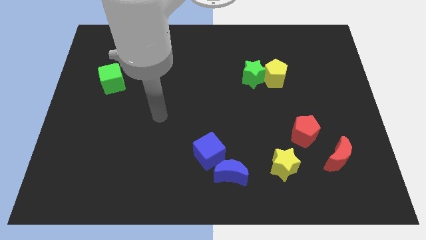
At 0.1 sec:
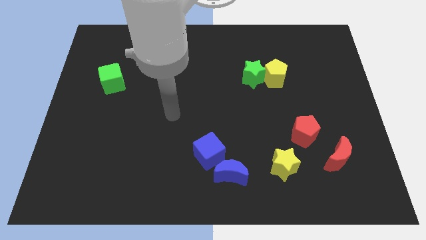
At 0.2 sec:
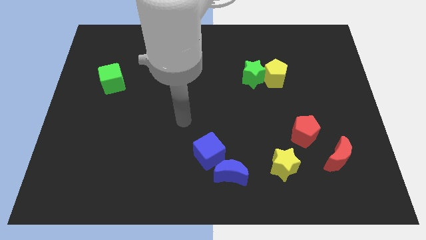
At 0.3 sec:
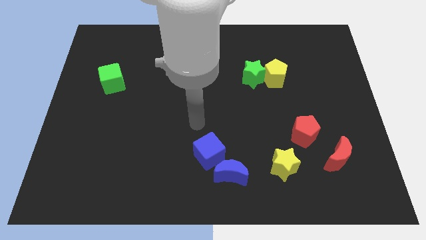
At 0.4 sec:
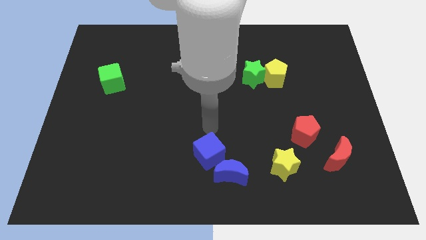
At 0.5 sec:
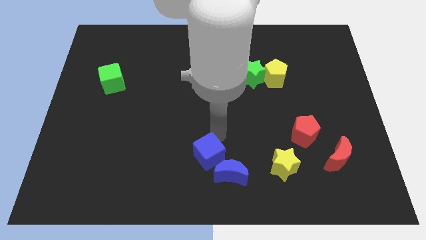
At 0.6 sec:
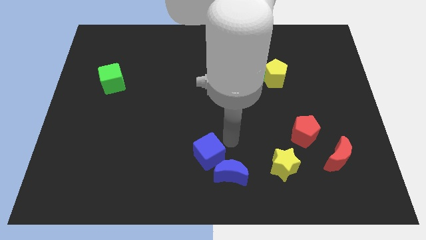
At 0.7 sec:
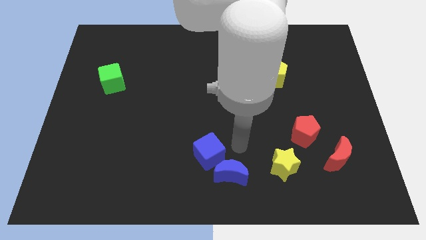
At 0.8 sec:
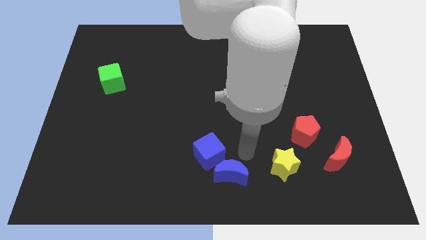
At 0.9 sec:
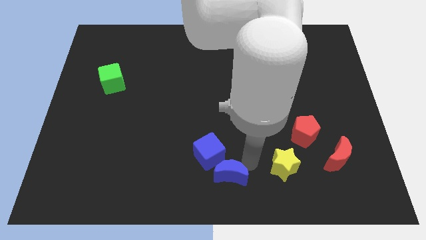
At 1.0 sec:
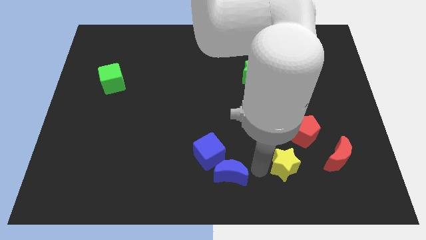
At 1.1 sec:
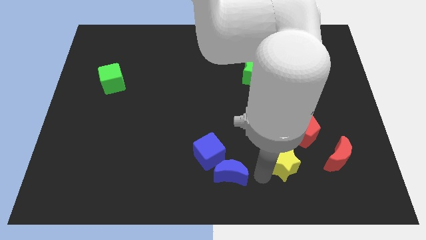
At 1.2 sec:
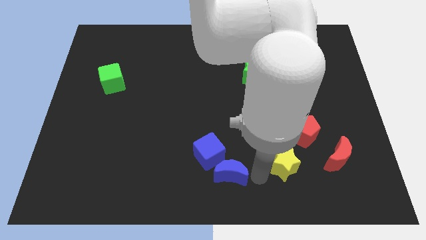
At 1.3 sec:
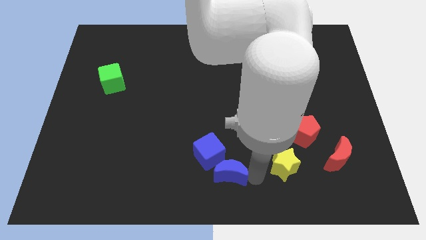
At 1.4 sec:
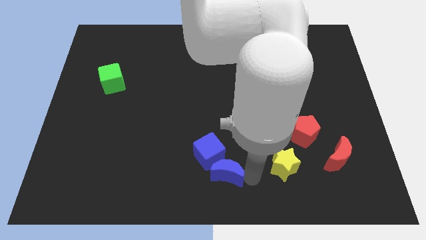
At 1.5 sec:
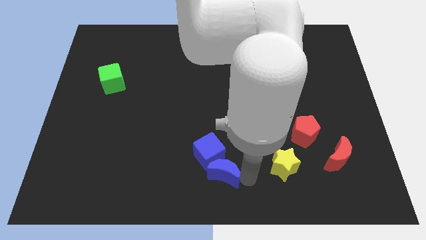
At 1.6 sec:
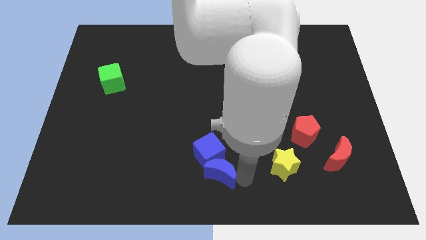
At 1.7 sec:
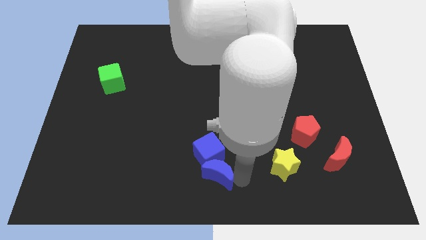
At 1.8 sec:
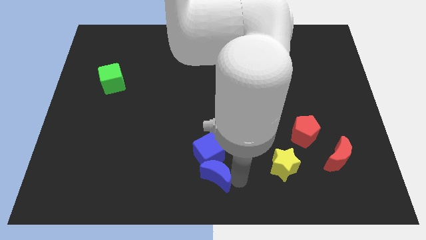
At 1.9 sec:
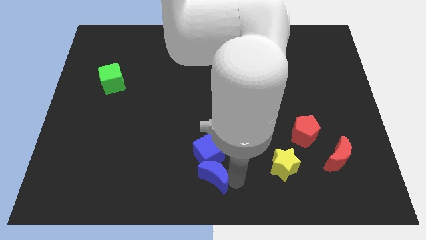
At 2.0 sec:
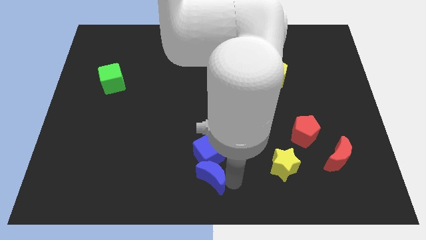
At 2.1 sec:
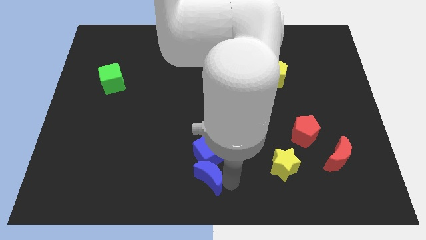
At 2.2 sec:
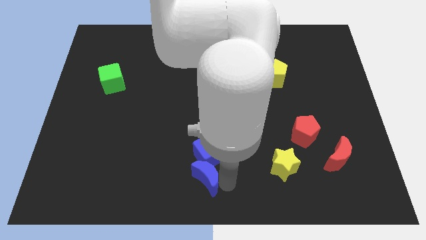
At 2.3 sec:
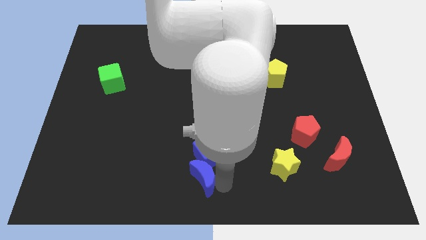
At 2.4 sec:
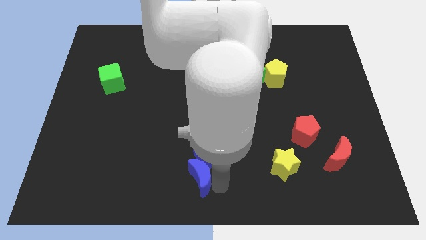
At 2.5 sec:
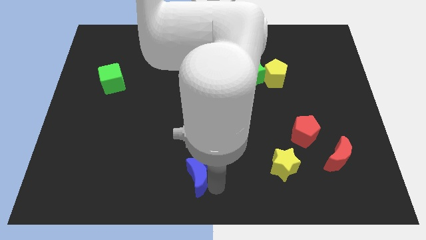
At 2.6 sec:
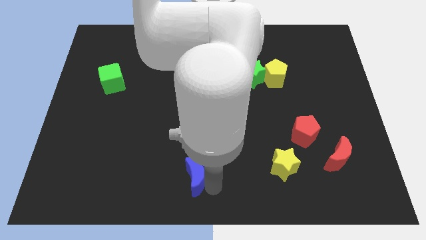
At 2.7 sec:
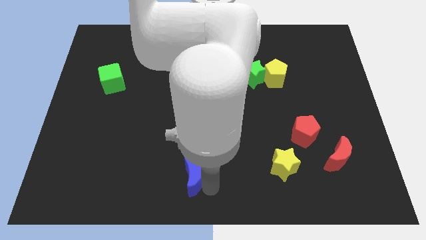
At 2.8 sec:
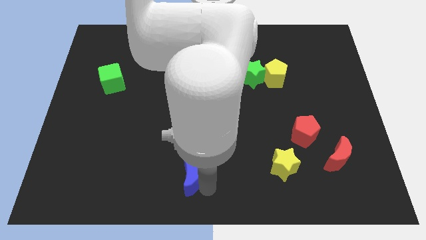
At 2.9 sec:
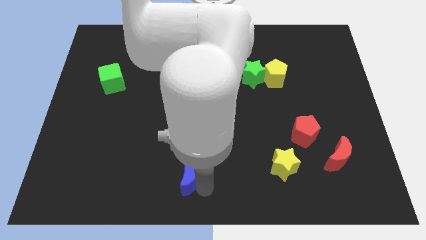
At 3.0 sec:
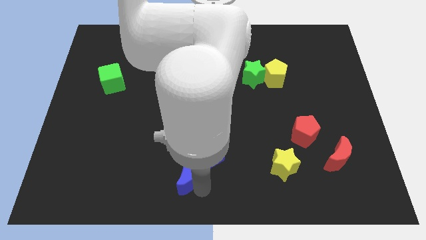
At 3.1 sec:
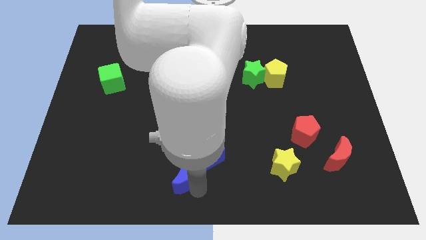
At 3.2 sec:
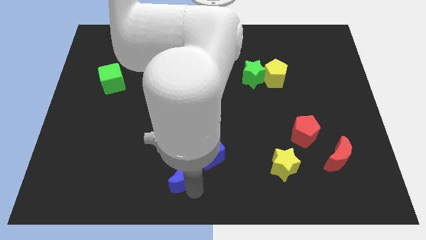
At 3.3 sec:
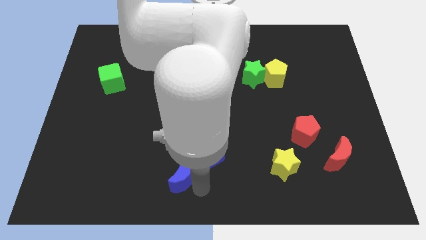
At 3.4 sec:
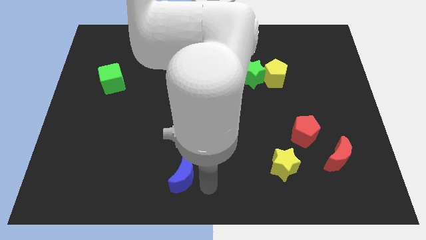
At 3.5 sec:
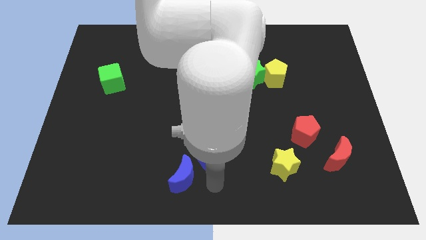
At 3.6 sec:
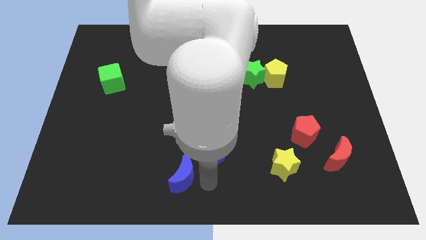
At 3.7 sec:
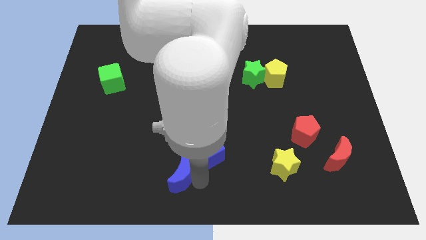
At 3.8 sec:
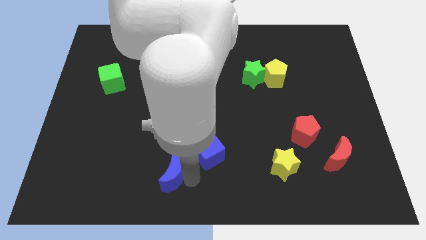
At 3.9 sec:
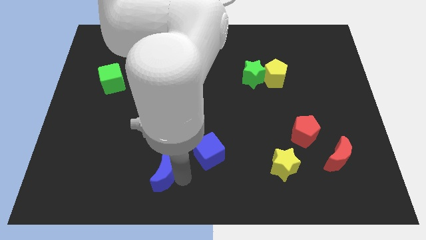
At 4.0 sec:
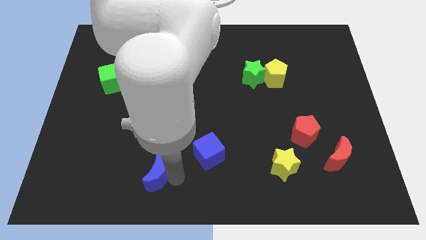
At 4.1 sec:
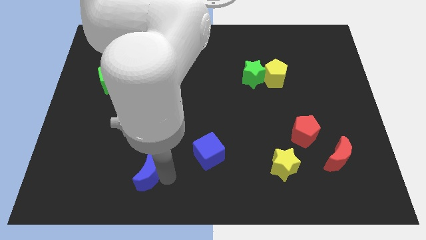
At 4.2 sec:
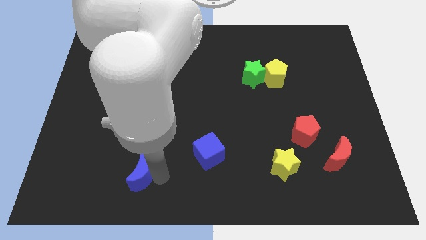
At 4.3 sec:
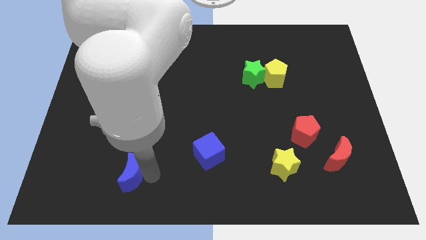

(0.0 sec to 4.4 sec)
move the blue moon left

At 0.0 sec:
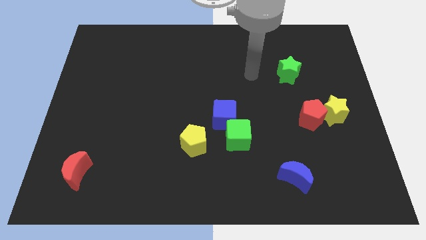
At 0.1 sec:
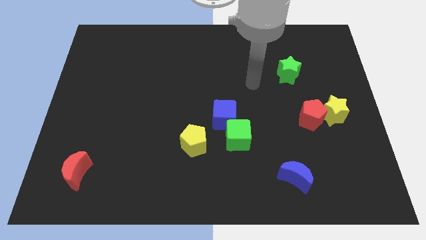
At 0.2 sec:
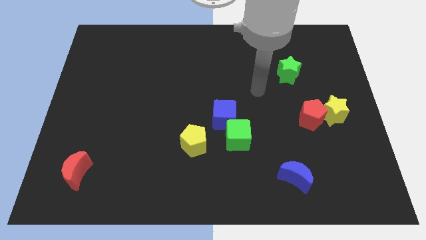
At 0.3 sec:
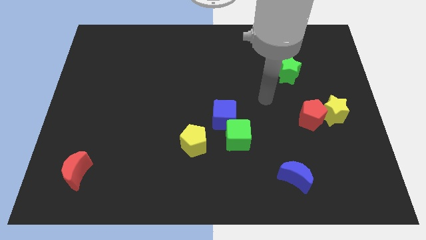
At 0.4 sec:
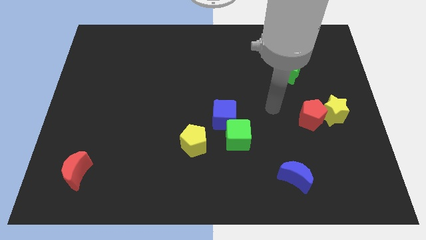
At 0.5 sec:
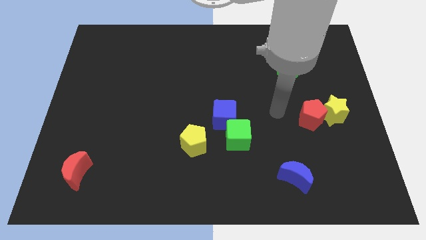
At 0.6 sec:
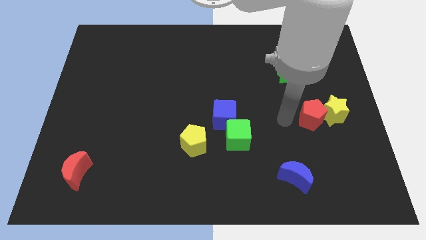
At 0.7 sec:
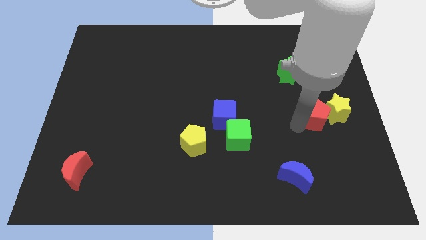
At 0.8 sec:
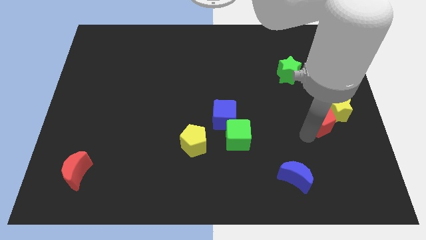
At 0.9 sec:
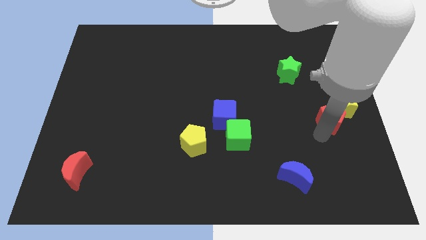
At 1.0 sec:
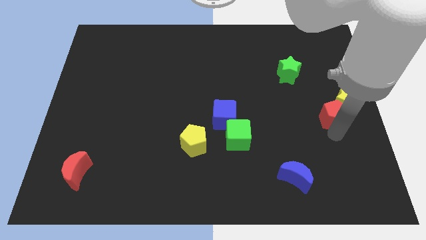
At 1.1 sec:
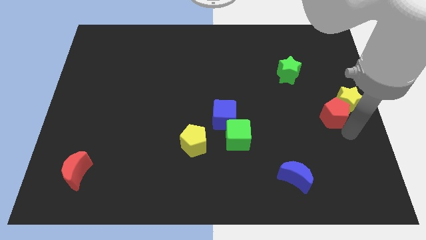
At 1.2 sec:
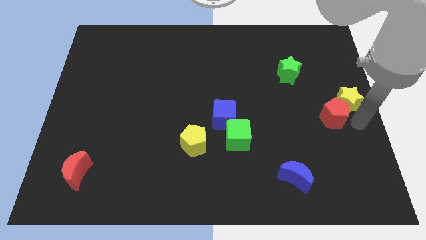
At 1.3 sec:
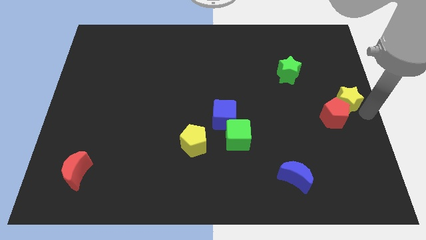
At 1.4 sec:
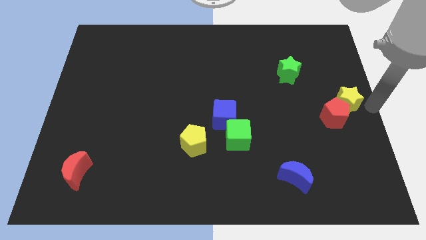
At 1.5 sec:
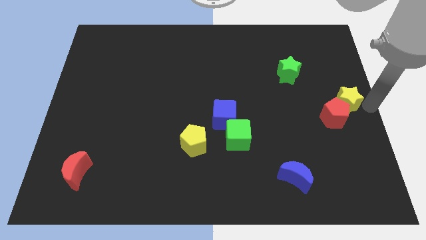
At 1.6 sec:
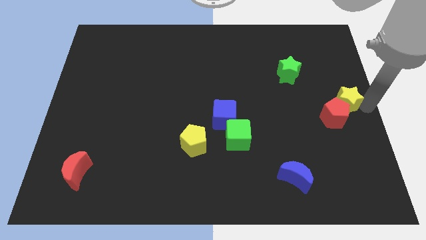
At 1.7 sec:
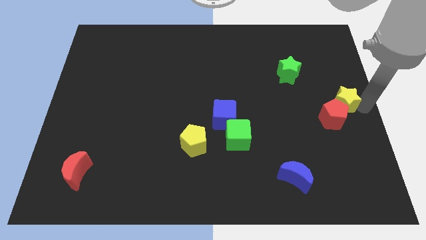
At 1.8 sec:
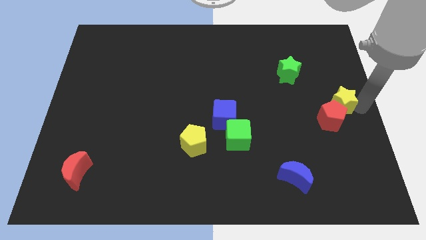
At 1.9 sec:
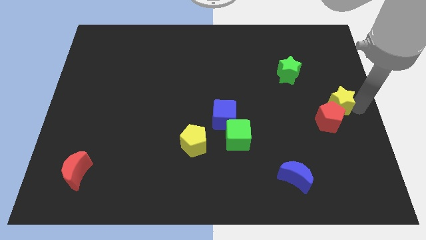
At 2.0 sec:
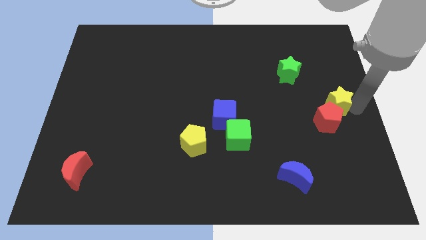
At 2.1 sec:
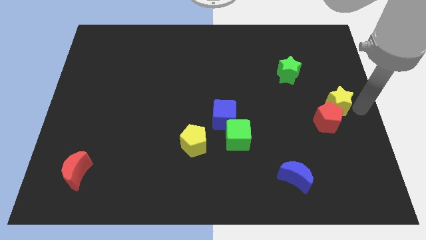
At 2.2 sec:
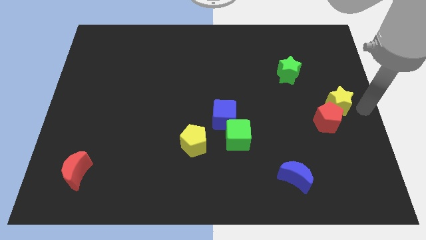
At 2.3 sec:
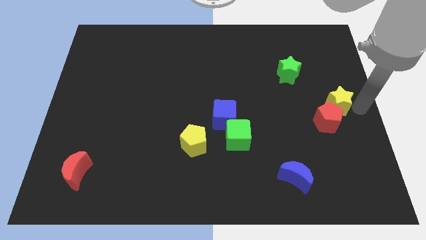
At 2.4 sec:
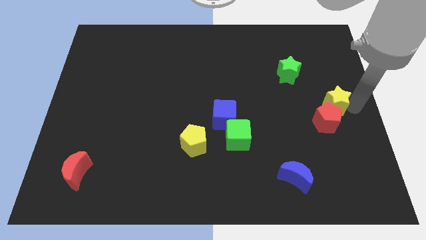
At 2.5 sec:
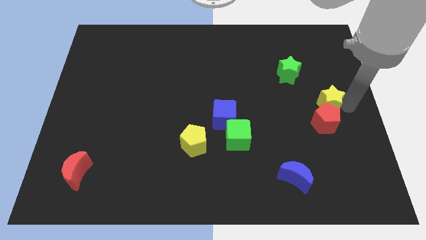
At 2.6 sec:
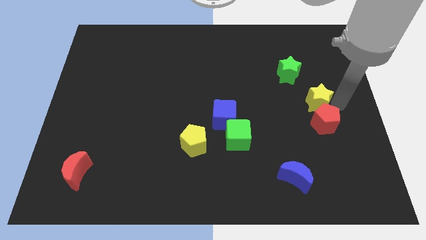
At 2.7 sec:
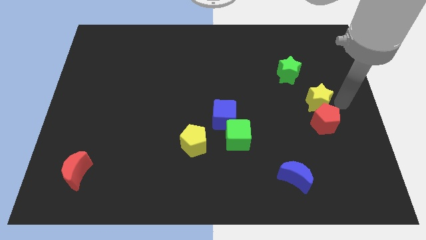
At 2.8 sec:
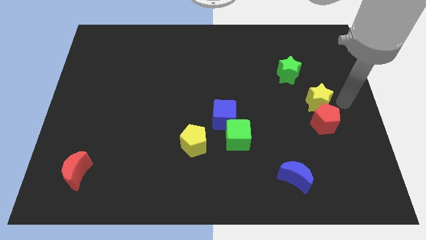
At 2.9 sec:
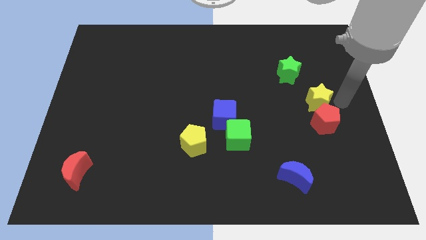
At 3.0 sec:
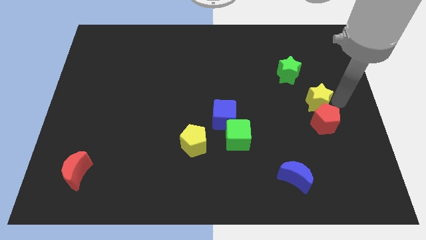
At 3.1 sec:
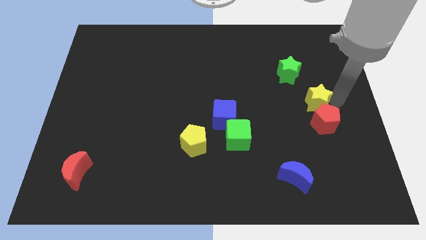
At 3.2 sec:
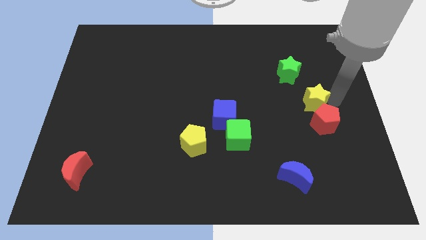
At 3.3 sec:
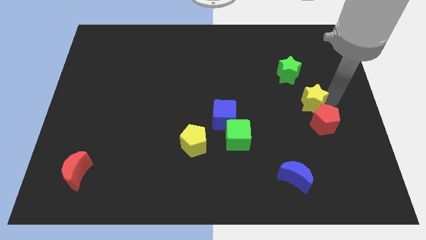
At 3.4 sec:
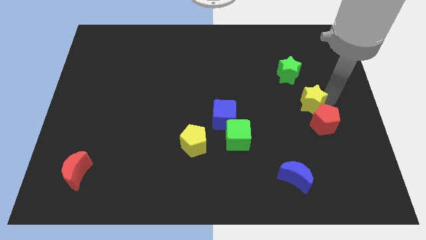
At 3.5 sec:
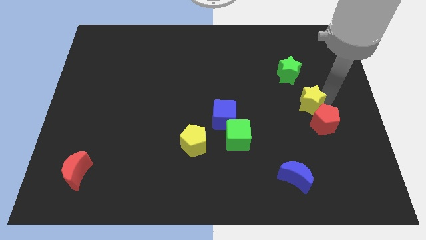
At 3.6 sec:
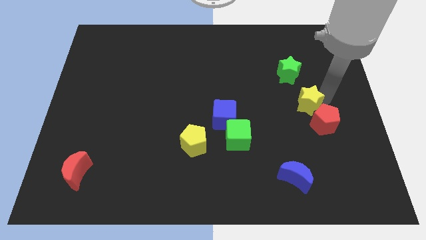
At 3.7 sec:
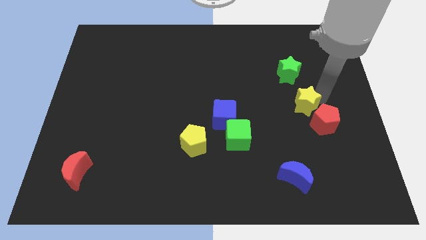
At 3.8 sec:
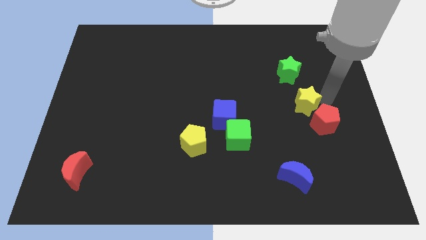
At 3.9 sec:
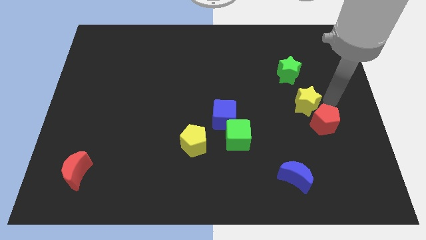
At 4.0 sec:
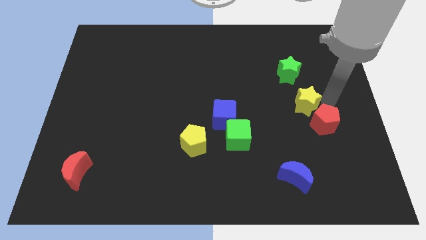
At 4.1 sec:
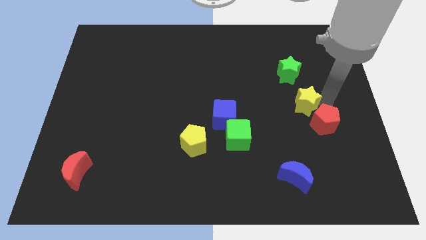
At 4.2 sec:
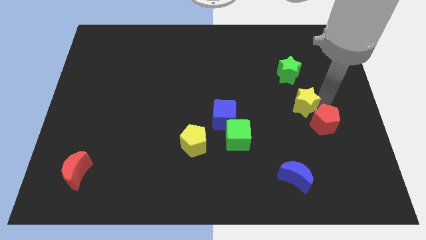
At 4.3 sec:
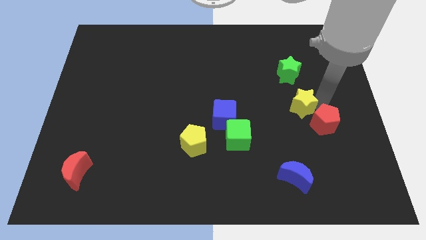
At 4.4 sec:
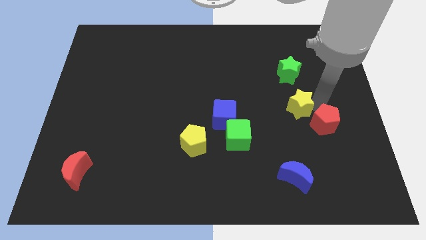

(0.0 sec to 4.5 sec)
slightly slide the yellow star to the left
